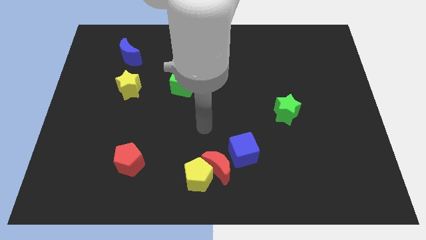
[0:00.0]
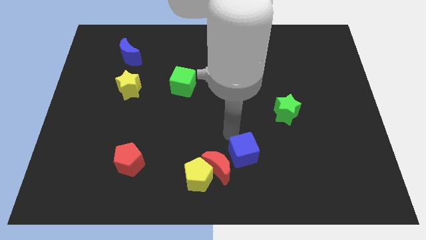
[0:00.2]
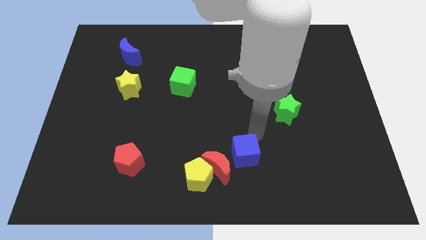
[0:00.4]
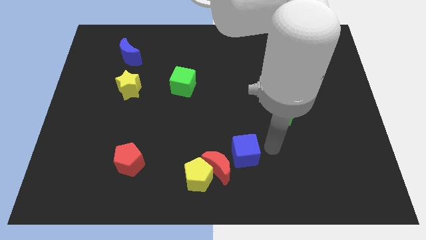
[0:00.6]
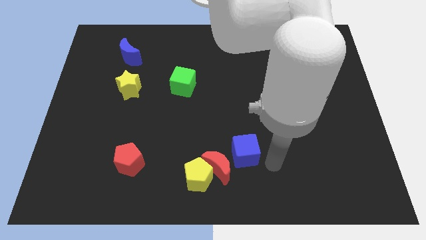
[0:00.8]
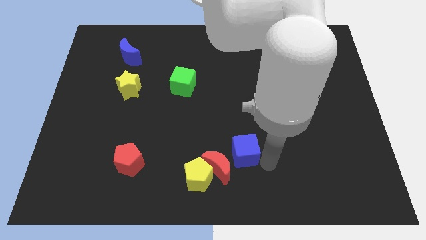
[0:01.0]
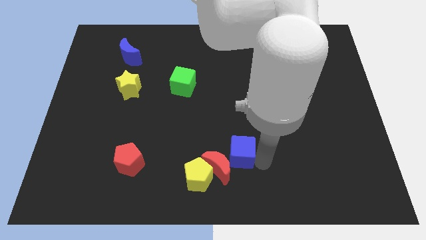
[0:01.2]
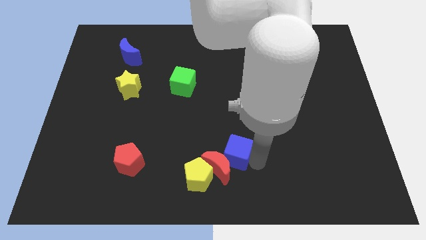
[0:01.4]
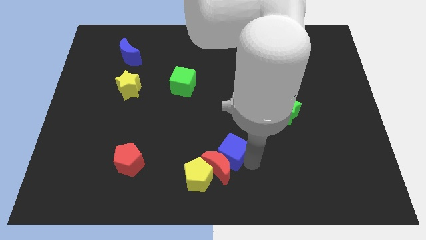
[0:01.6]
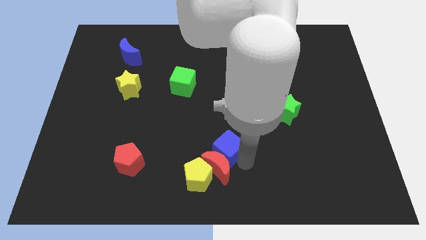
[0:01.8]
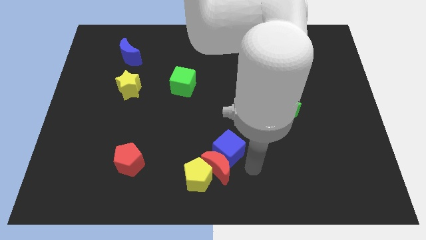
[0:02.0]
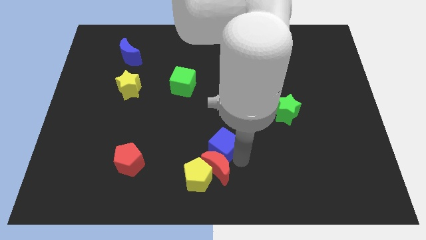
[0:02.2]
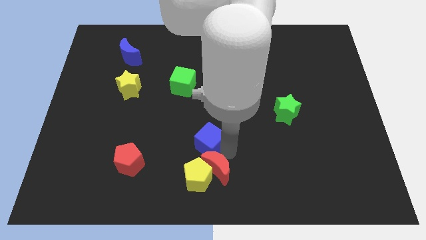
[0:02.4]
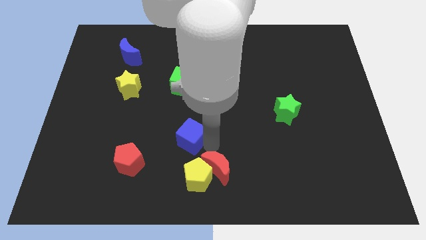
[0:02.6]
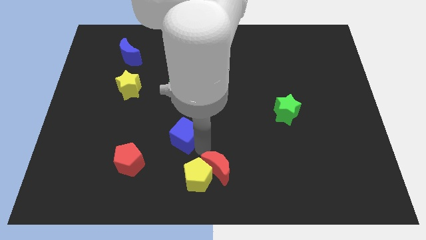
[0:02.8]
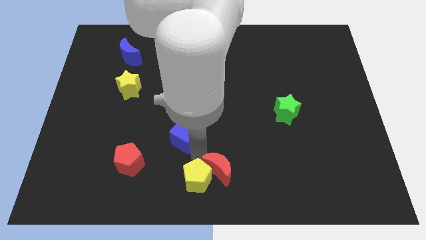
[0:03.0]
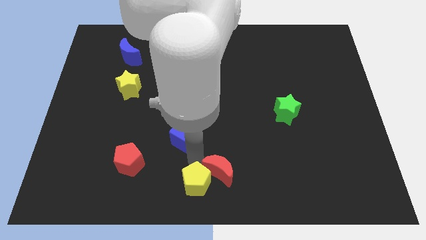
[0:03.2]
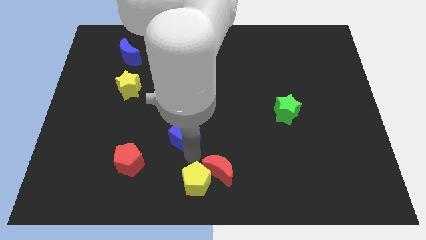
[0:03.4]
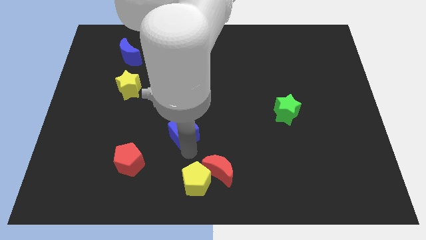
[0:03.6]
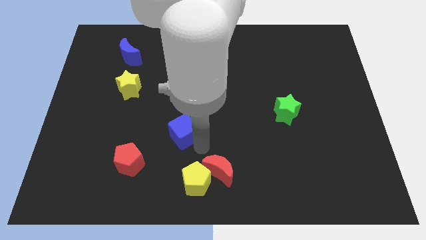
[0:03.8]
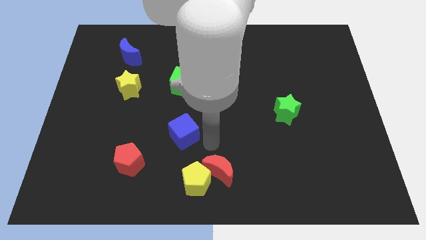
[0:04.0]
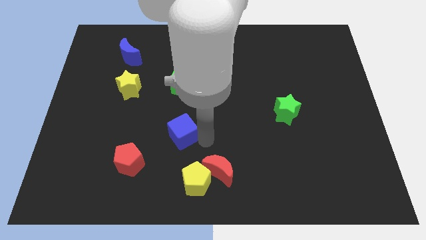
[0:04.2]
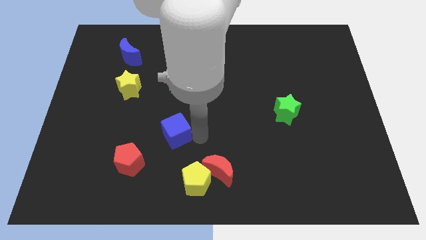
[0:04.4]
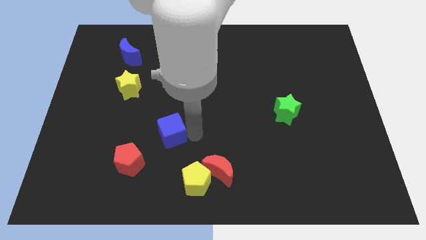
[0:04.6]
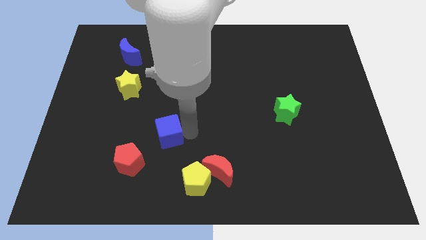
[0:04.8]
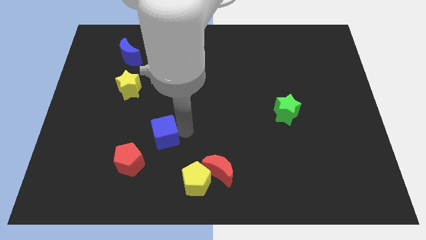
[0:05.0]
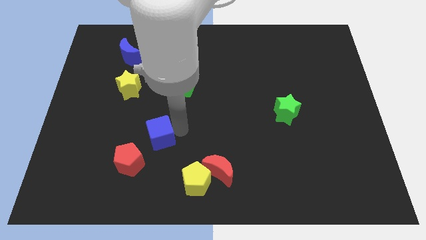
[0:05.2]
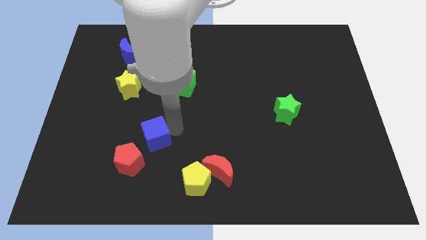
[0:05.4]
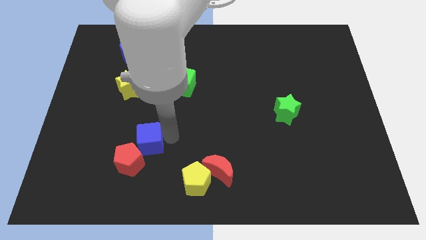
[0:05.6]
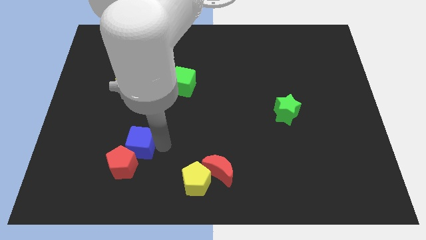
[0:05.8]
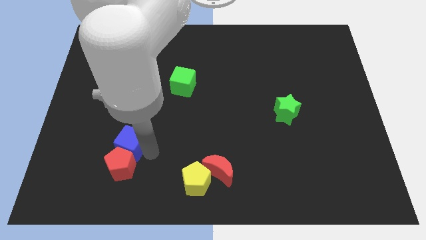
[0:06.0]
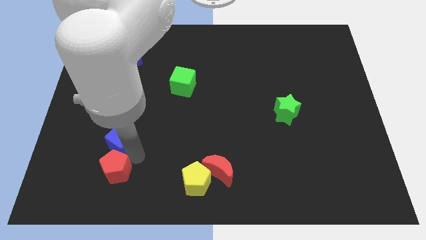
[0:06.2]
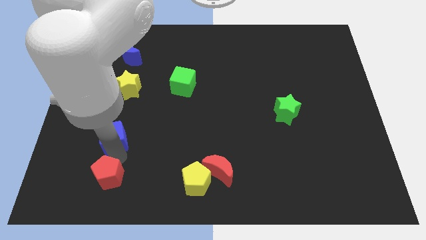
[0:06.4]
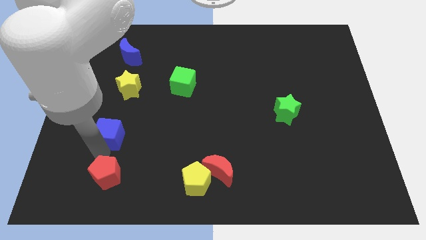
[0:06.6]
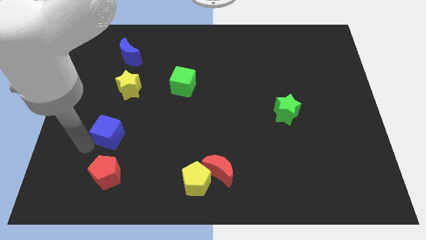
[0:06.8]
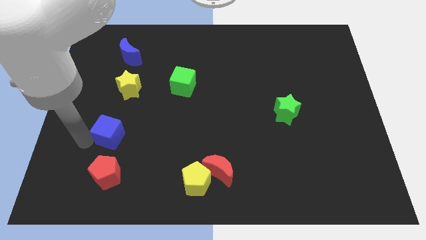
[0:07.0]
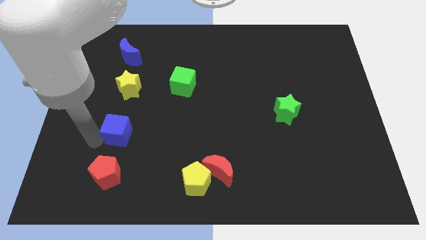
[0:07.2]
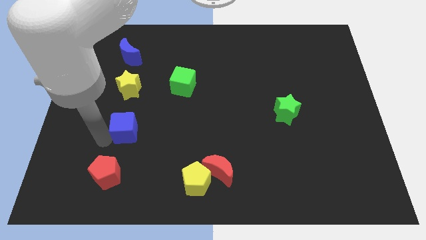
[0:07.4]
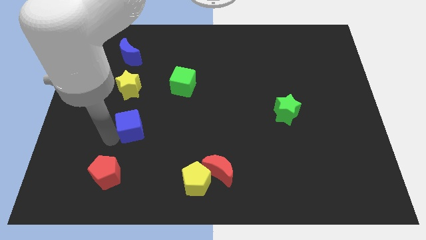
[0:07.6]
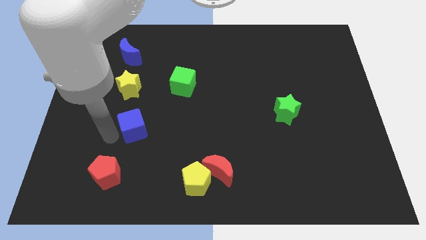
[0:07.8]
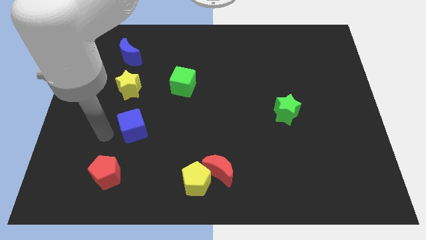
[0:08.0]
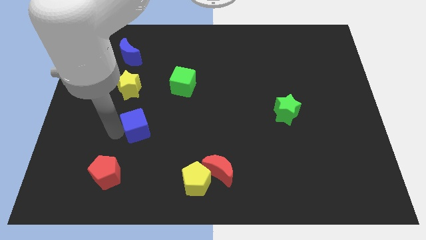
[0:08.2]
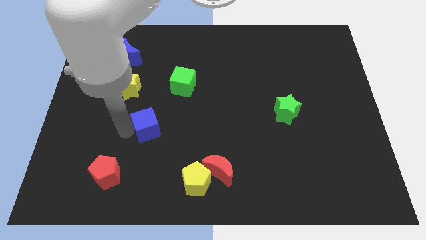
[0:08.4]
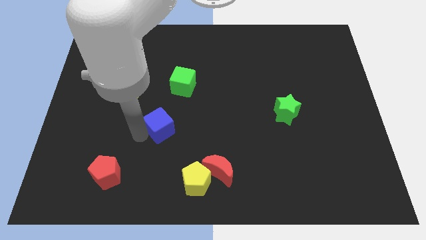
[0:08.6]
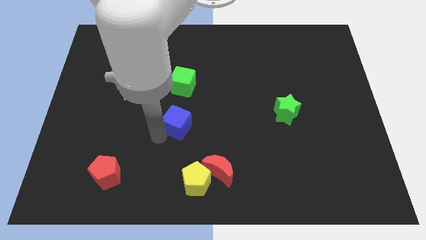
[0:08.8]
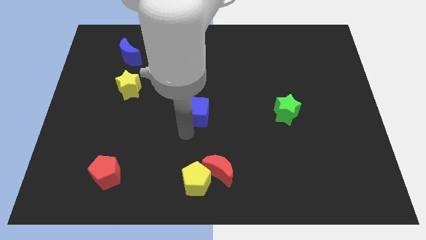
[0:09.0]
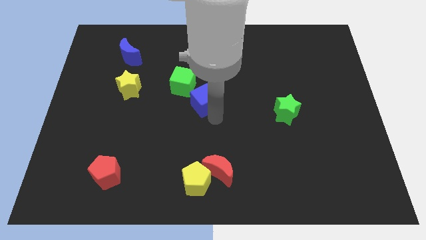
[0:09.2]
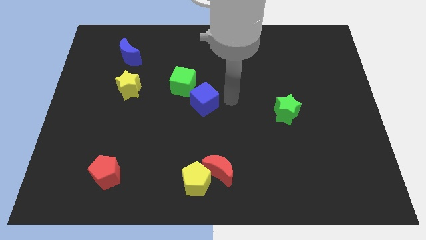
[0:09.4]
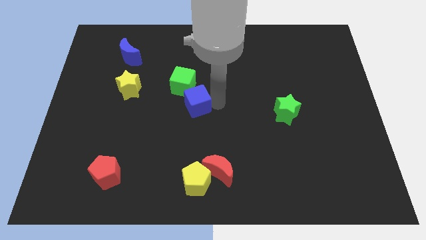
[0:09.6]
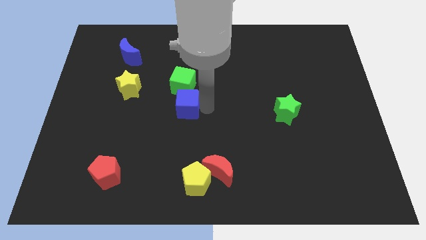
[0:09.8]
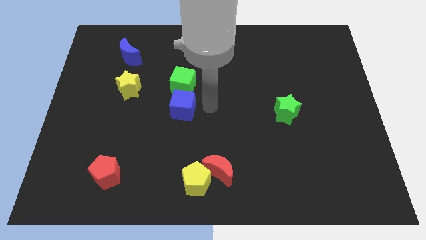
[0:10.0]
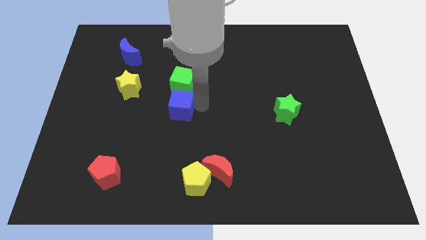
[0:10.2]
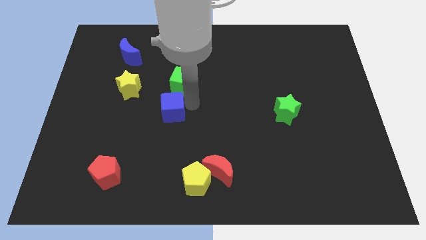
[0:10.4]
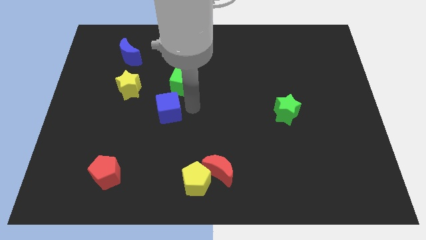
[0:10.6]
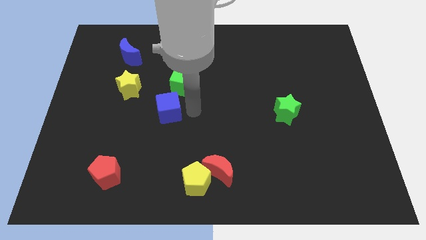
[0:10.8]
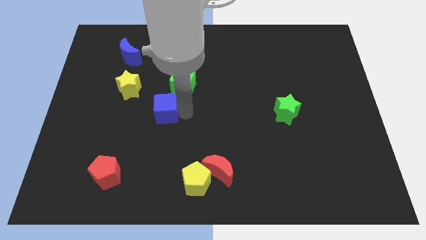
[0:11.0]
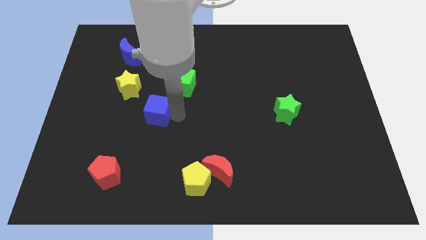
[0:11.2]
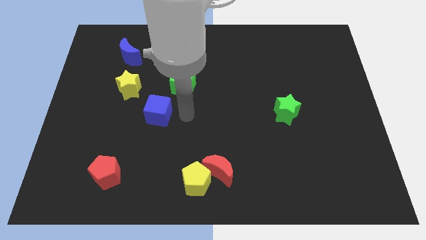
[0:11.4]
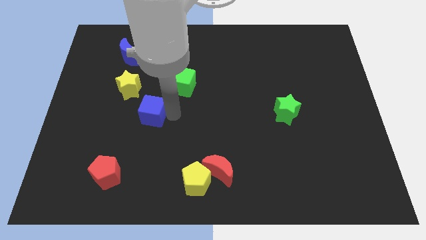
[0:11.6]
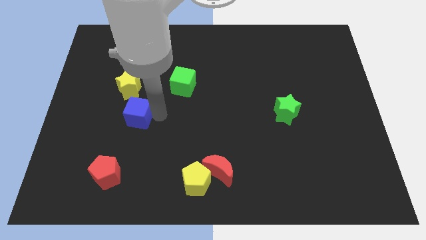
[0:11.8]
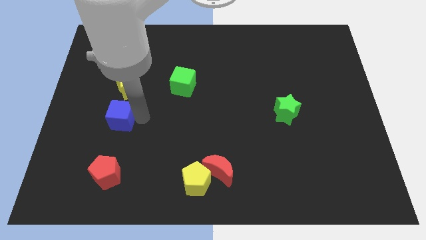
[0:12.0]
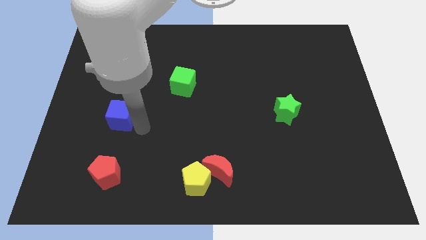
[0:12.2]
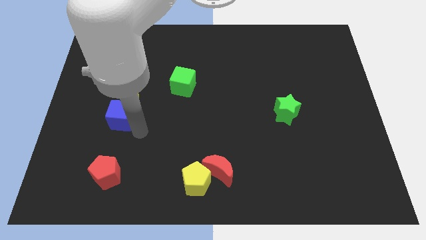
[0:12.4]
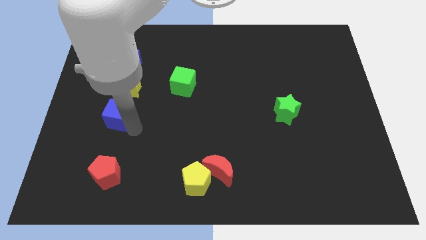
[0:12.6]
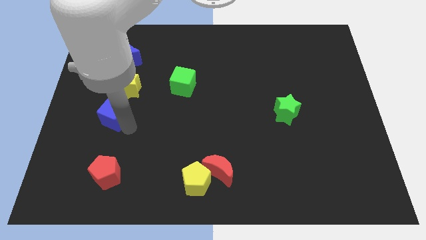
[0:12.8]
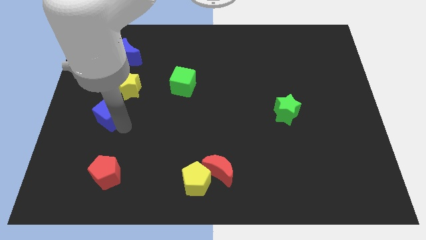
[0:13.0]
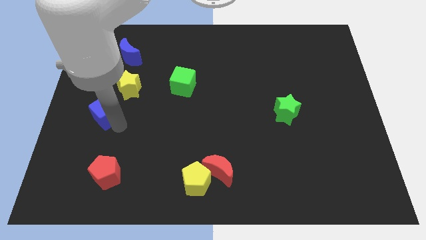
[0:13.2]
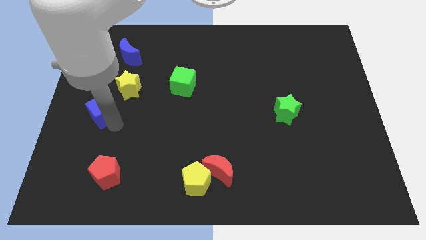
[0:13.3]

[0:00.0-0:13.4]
move the blue cube to the center left
